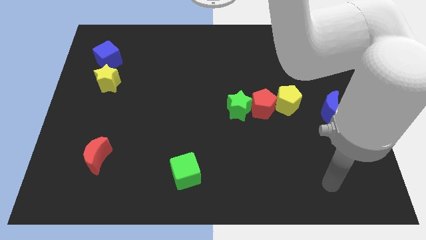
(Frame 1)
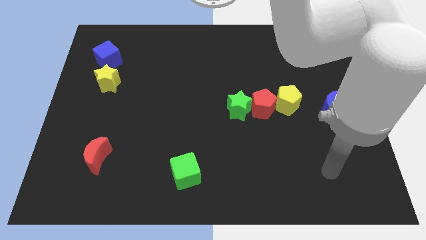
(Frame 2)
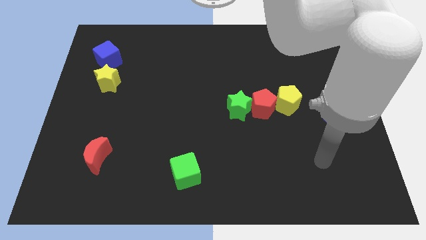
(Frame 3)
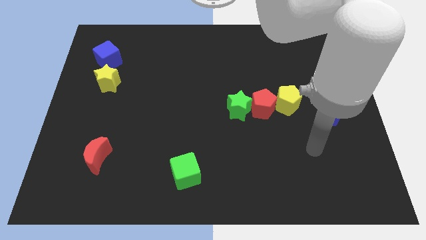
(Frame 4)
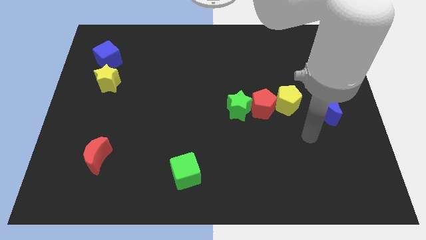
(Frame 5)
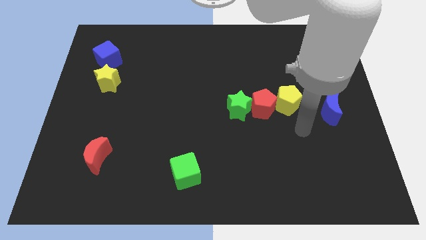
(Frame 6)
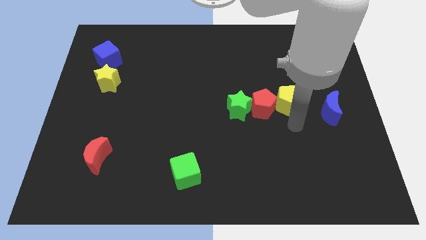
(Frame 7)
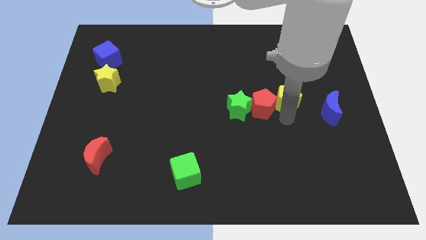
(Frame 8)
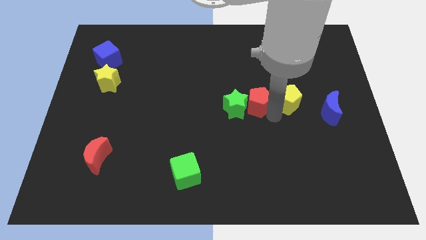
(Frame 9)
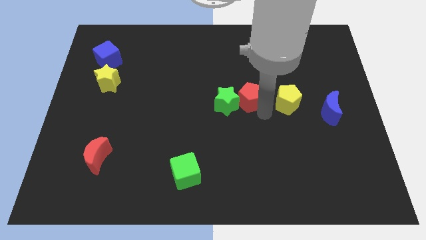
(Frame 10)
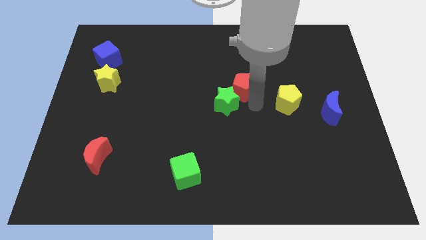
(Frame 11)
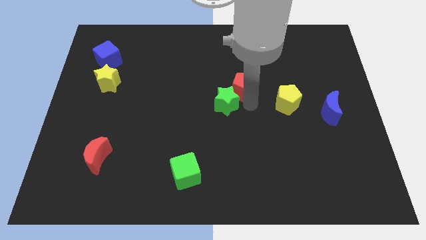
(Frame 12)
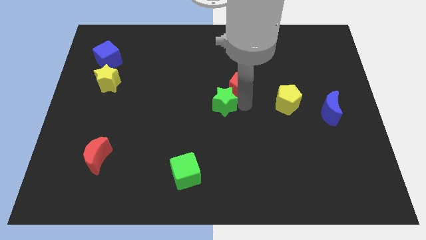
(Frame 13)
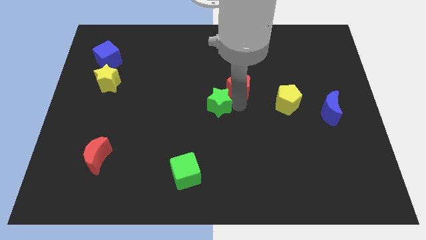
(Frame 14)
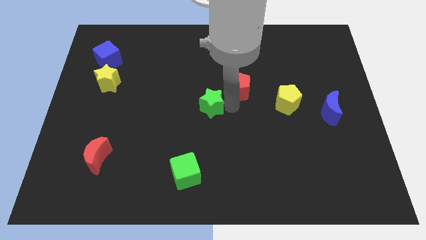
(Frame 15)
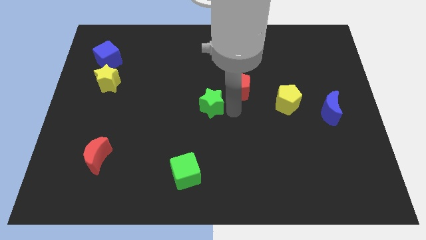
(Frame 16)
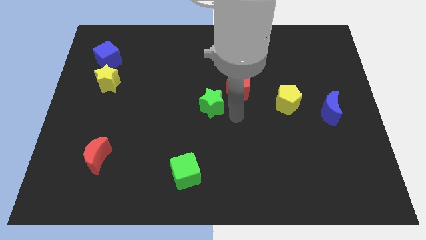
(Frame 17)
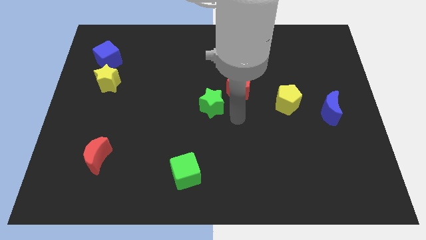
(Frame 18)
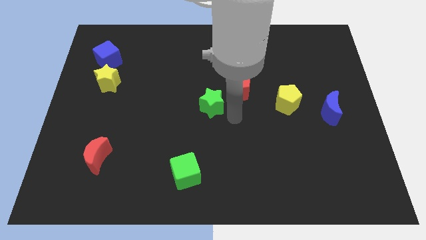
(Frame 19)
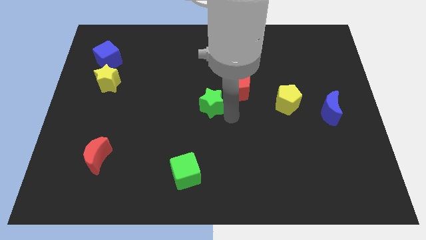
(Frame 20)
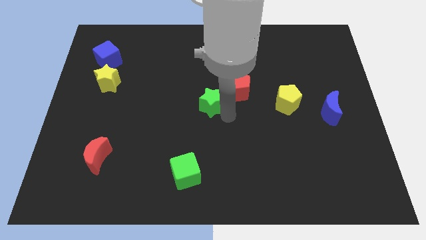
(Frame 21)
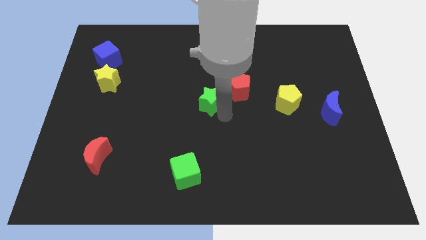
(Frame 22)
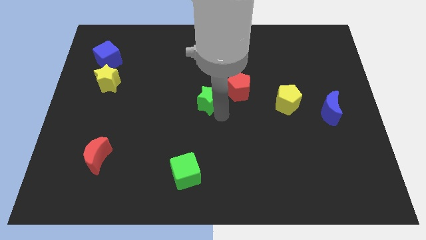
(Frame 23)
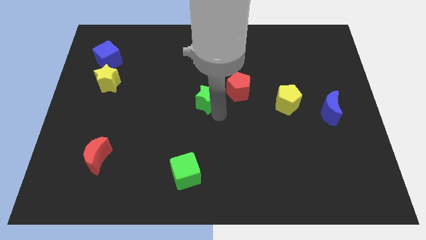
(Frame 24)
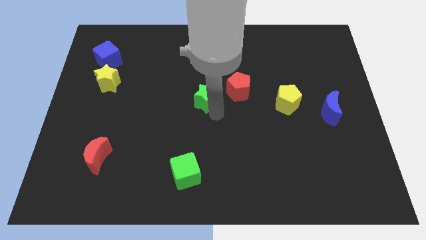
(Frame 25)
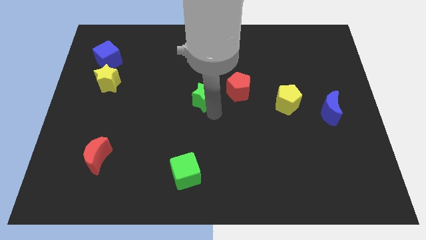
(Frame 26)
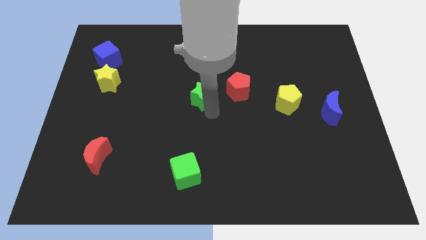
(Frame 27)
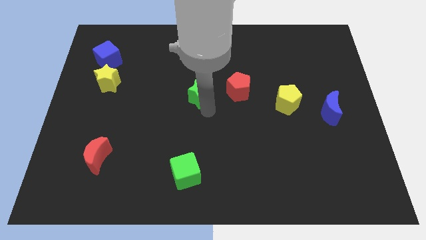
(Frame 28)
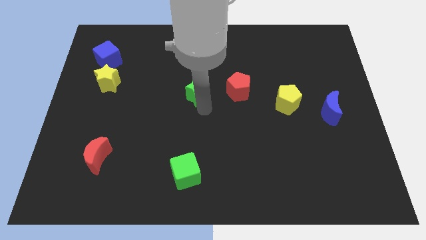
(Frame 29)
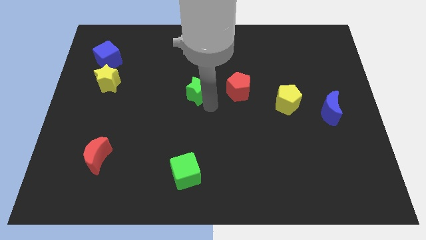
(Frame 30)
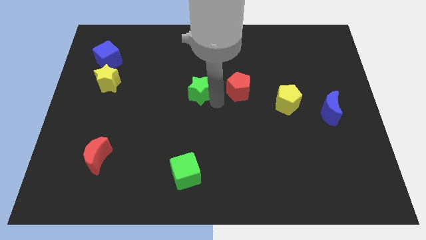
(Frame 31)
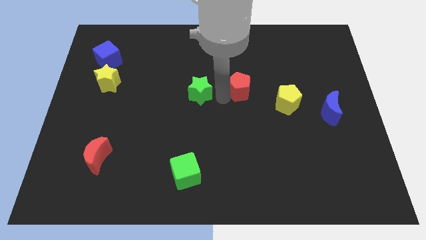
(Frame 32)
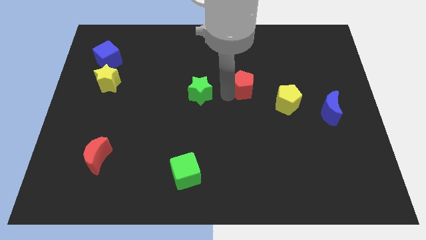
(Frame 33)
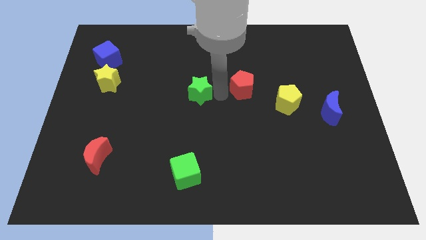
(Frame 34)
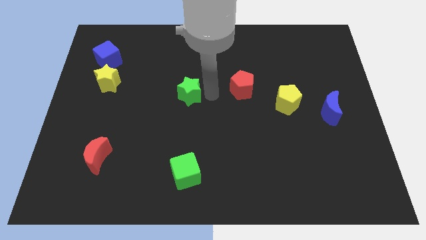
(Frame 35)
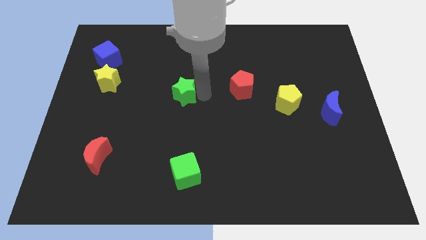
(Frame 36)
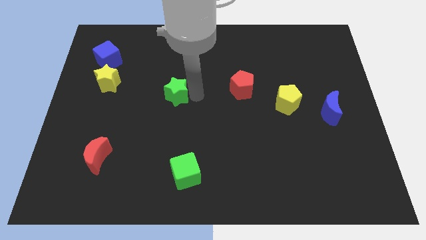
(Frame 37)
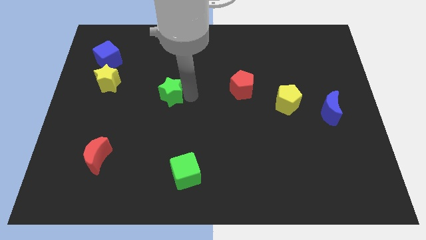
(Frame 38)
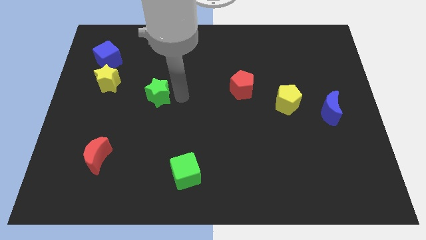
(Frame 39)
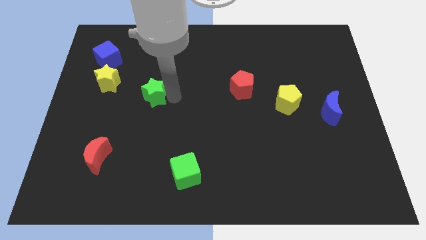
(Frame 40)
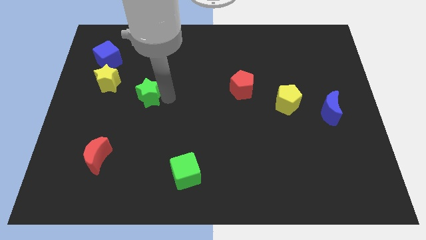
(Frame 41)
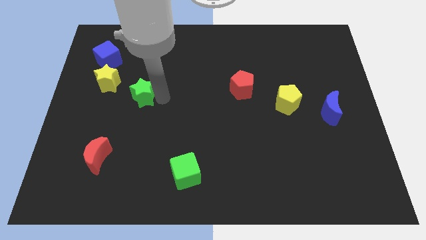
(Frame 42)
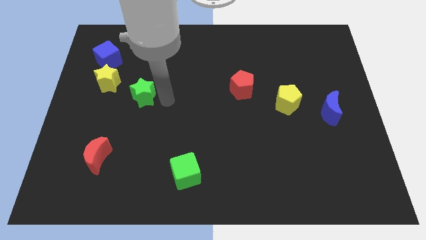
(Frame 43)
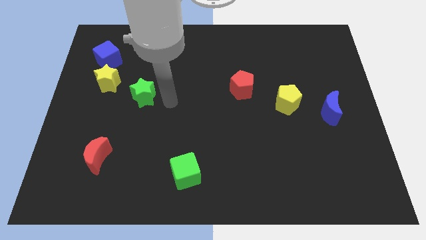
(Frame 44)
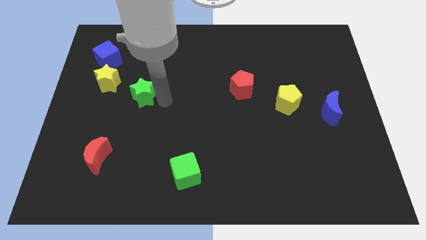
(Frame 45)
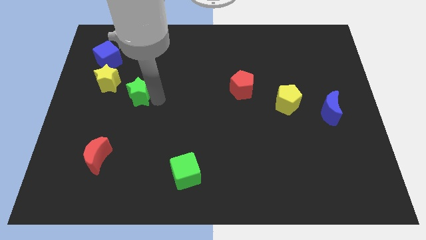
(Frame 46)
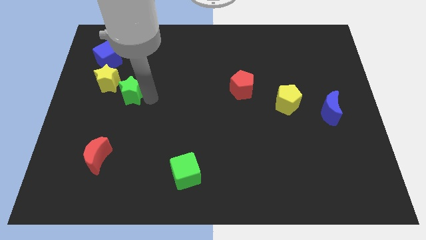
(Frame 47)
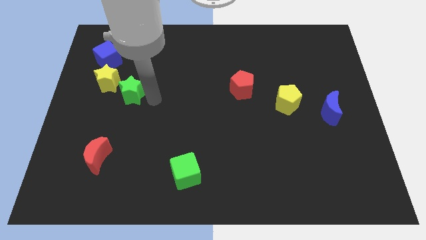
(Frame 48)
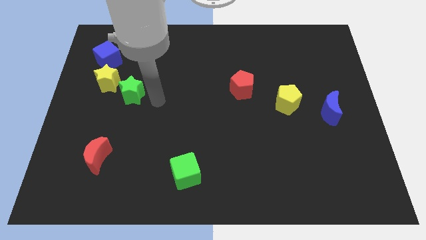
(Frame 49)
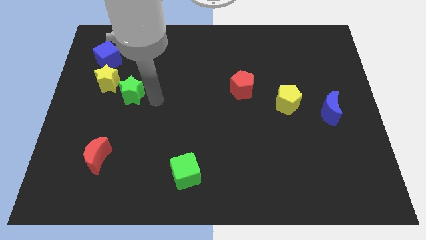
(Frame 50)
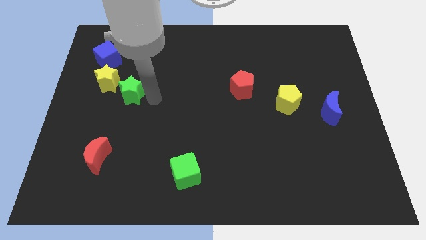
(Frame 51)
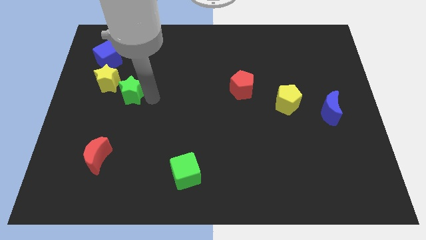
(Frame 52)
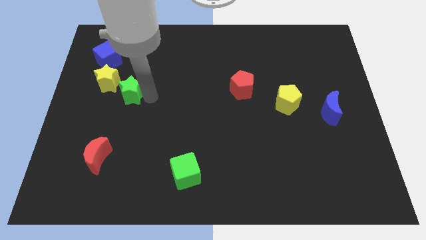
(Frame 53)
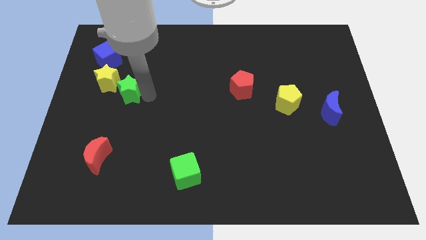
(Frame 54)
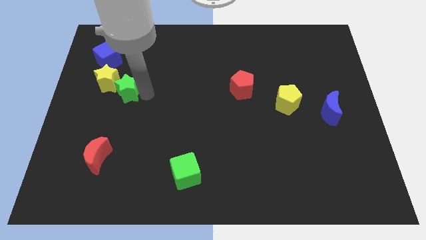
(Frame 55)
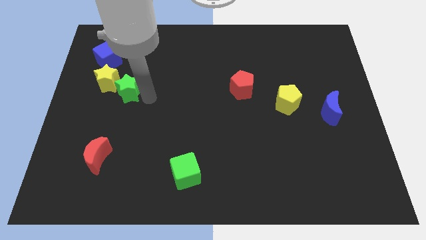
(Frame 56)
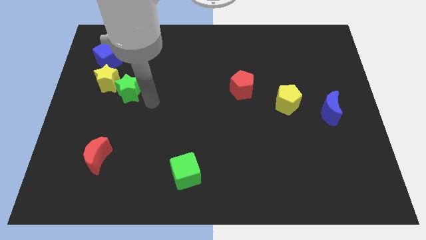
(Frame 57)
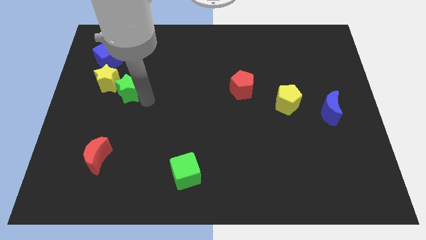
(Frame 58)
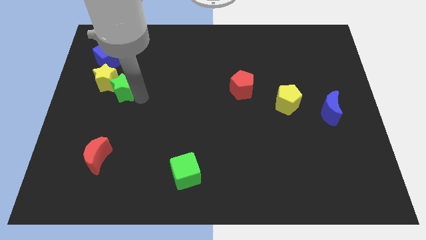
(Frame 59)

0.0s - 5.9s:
slide the green star next to the yellow star

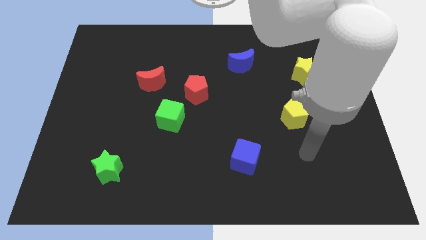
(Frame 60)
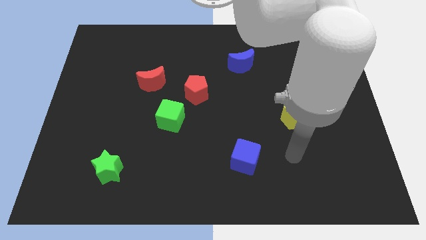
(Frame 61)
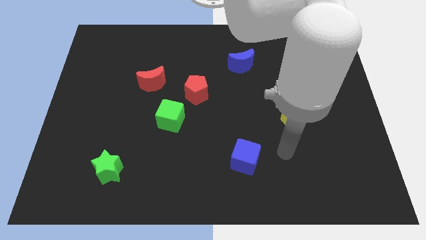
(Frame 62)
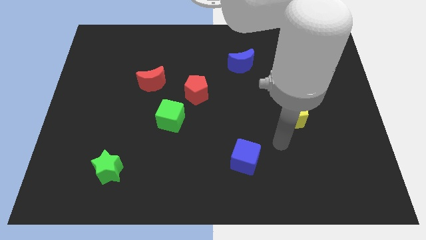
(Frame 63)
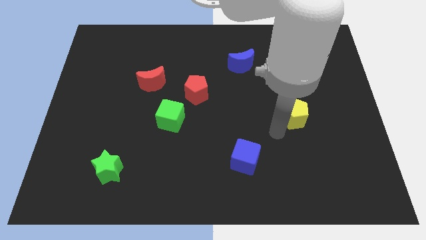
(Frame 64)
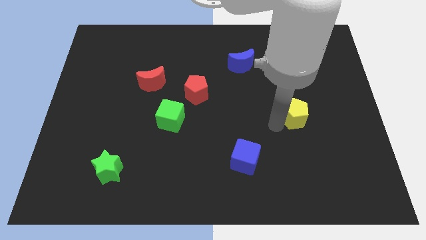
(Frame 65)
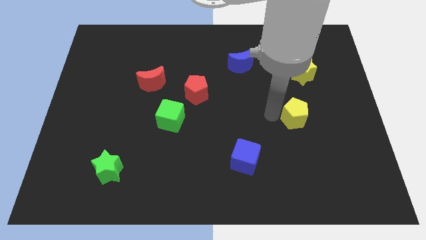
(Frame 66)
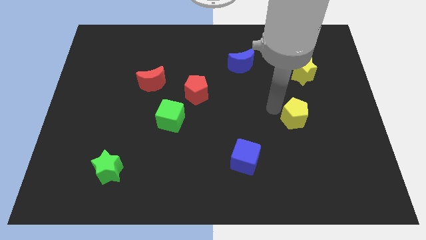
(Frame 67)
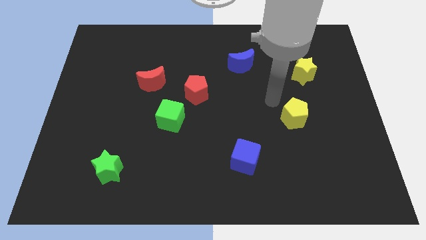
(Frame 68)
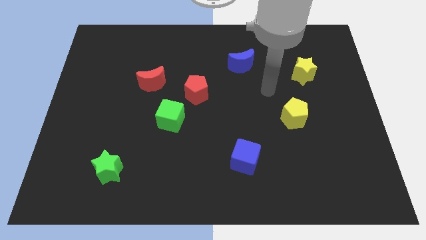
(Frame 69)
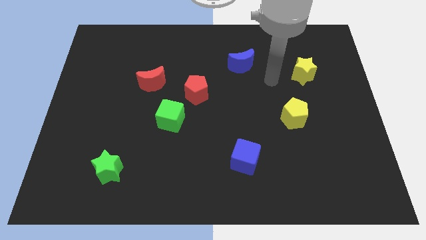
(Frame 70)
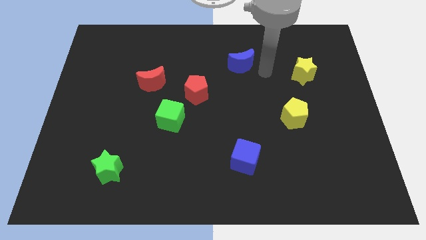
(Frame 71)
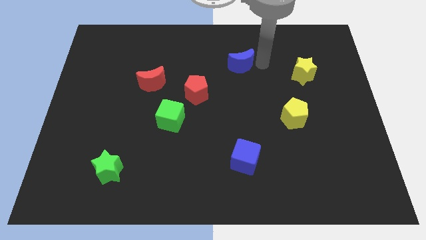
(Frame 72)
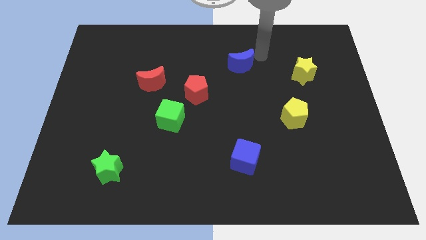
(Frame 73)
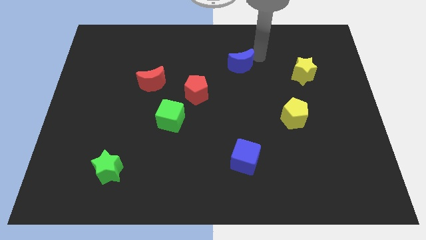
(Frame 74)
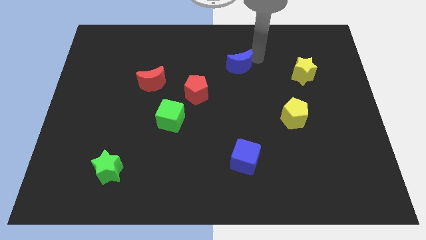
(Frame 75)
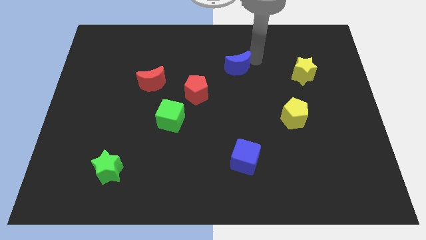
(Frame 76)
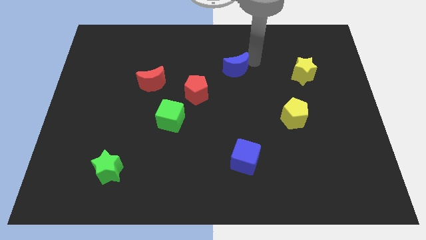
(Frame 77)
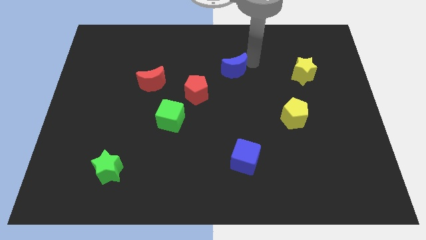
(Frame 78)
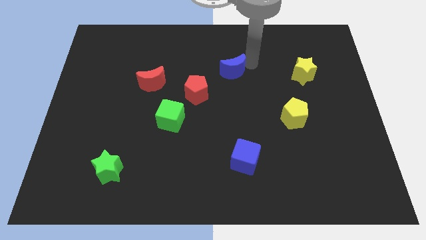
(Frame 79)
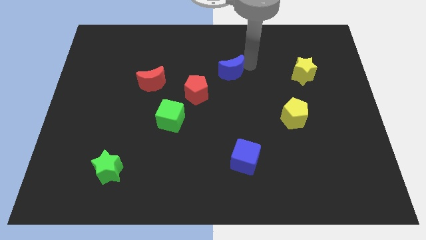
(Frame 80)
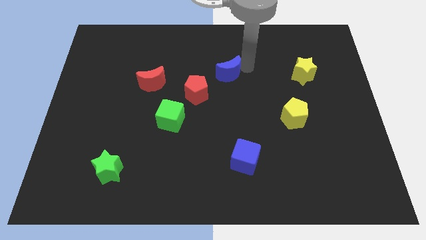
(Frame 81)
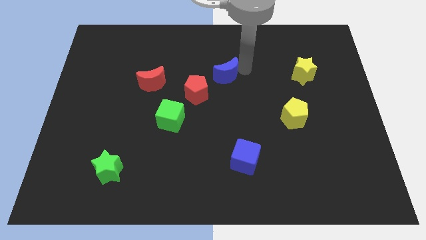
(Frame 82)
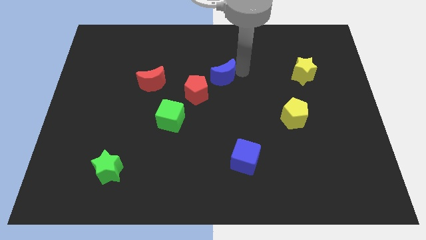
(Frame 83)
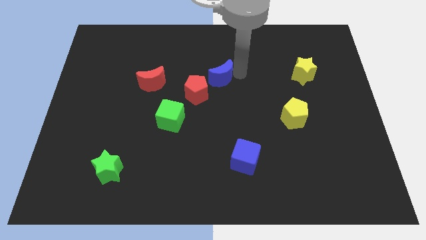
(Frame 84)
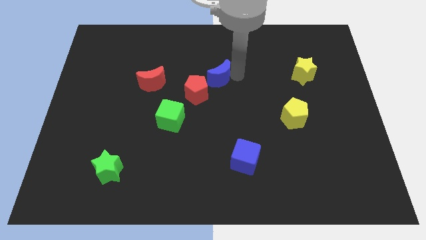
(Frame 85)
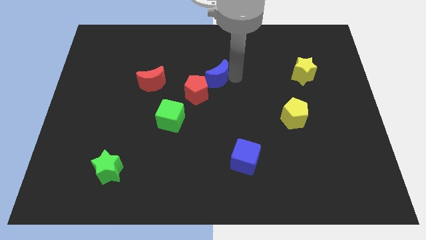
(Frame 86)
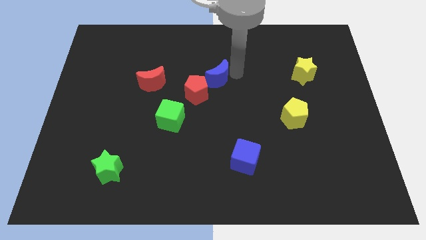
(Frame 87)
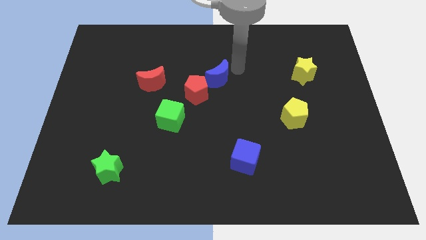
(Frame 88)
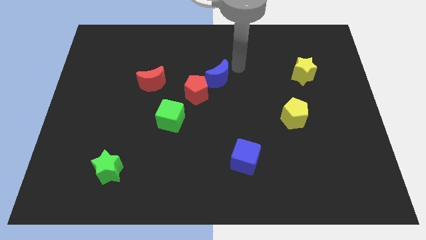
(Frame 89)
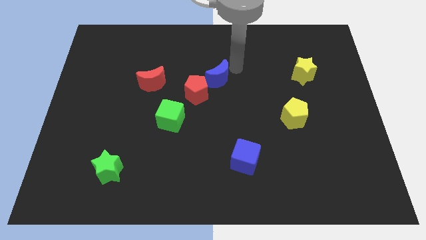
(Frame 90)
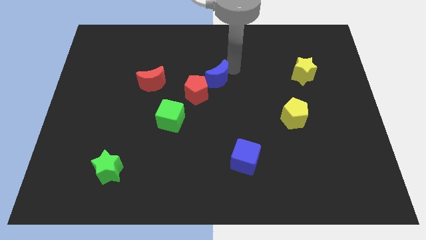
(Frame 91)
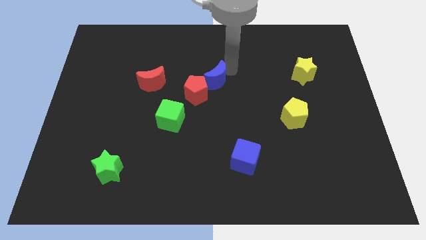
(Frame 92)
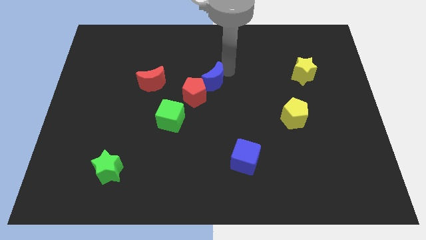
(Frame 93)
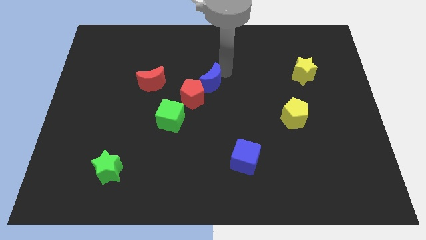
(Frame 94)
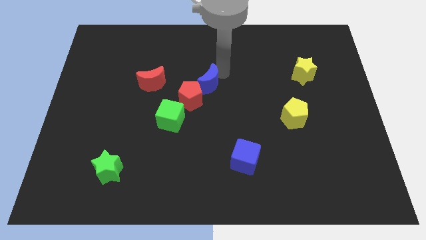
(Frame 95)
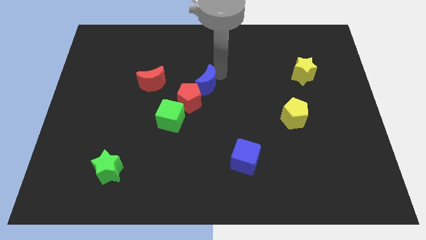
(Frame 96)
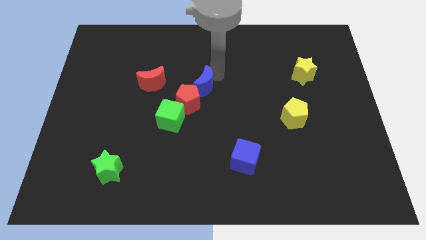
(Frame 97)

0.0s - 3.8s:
put the blue moon next to the red pentagon
